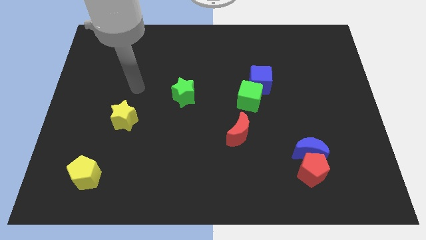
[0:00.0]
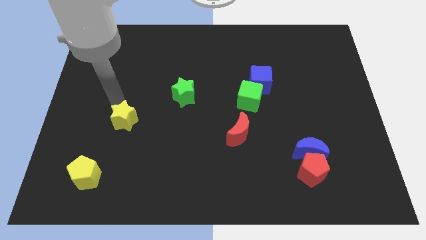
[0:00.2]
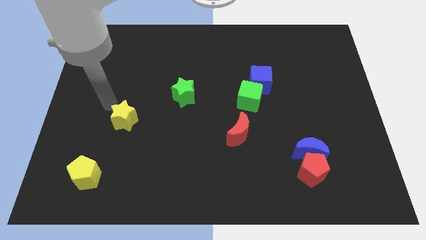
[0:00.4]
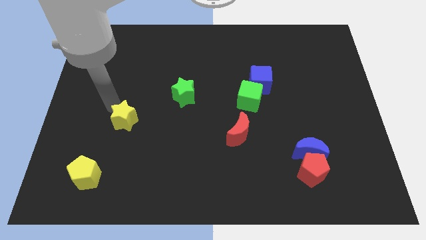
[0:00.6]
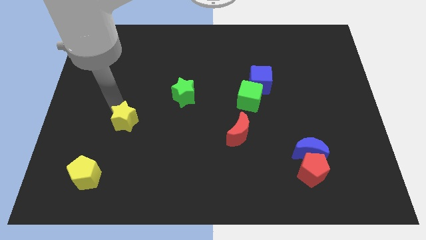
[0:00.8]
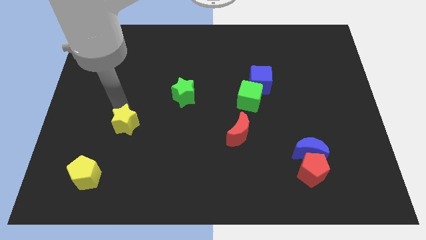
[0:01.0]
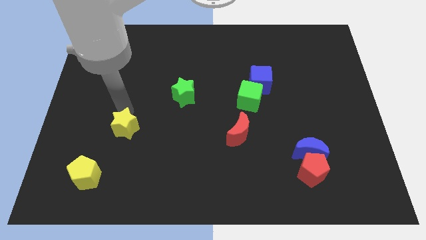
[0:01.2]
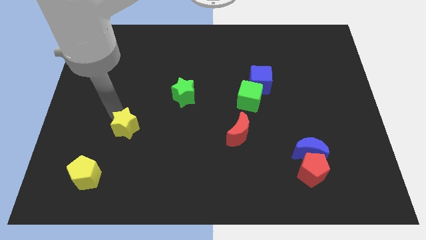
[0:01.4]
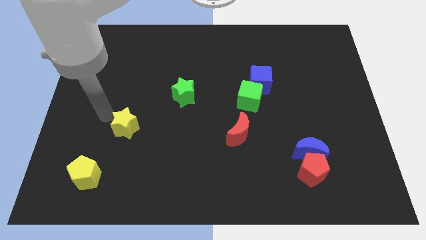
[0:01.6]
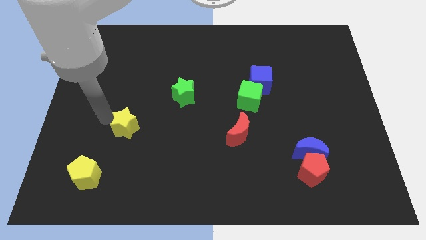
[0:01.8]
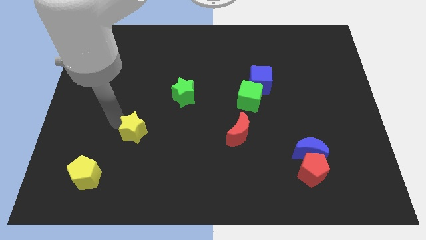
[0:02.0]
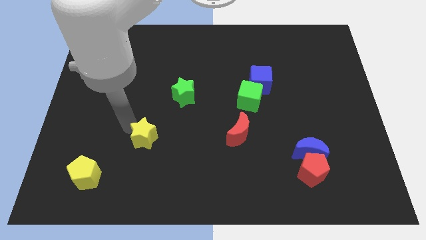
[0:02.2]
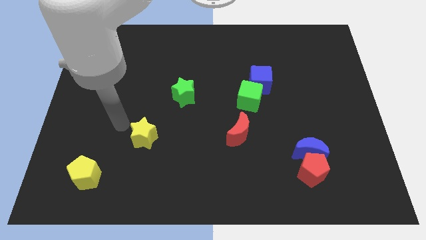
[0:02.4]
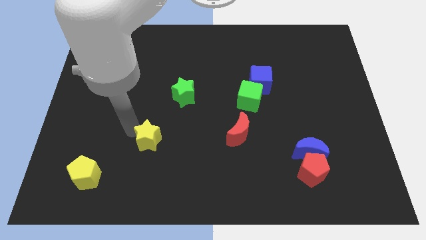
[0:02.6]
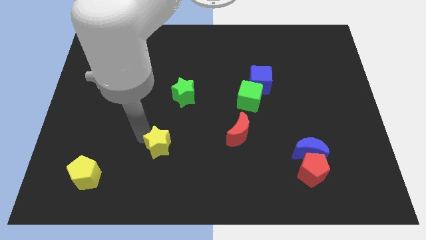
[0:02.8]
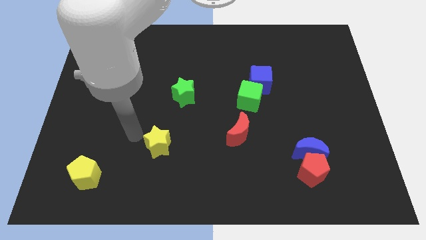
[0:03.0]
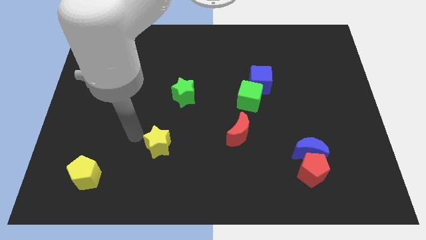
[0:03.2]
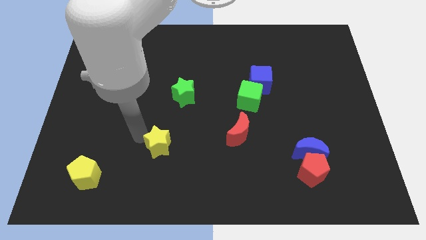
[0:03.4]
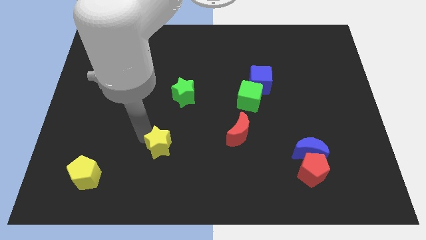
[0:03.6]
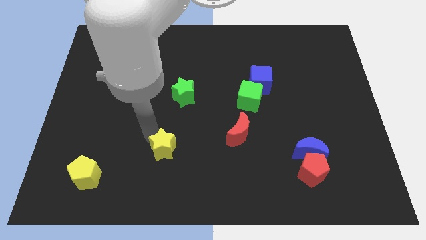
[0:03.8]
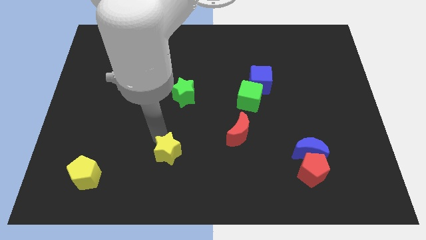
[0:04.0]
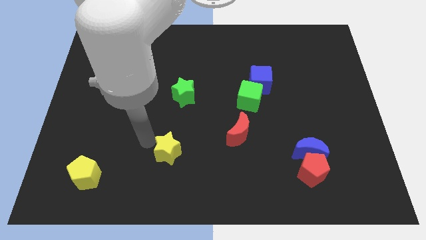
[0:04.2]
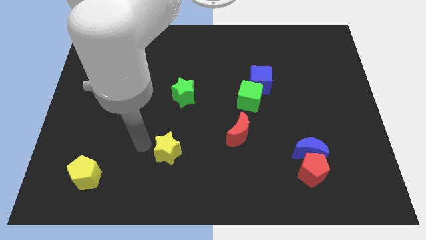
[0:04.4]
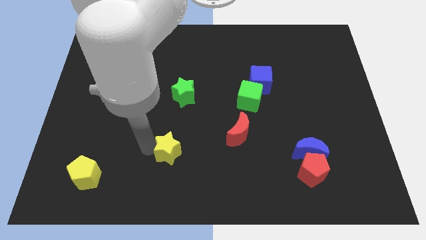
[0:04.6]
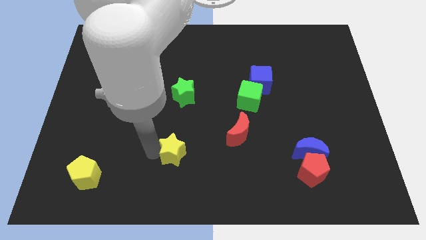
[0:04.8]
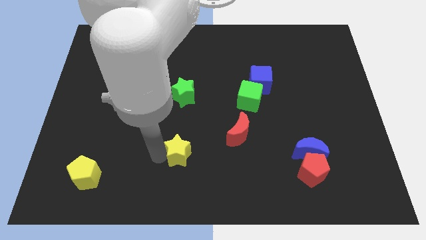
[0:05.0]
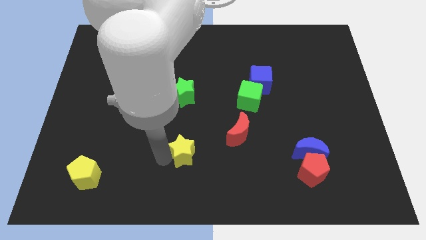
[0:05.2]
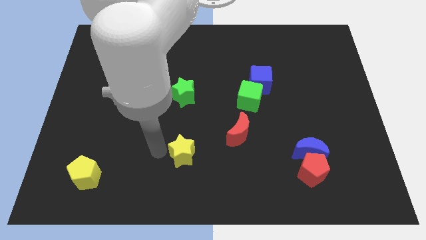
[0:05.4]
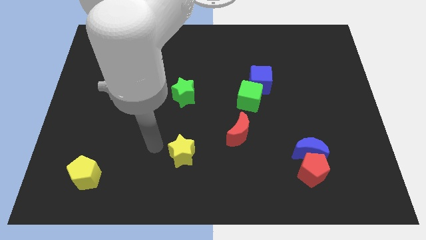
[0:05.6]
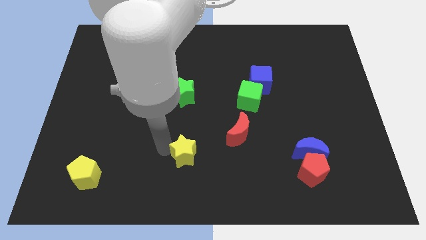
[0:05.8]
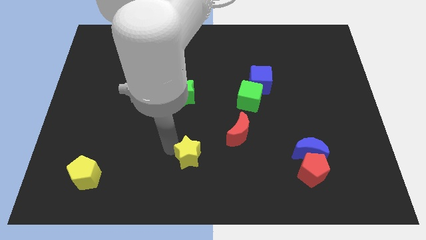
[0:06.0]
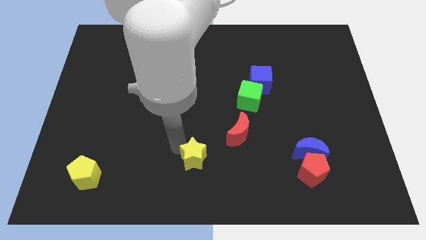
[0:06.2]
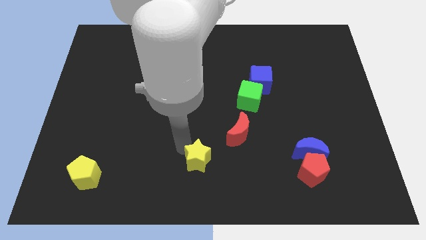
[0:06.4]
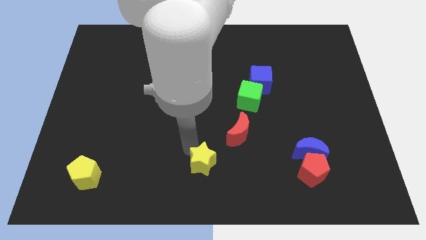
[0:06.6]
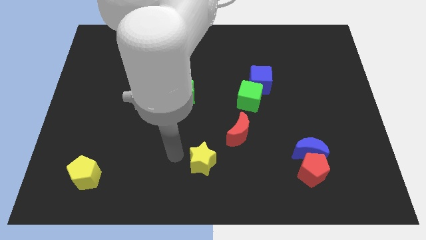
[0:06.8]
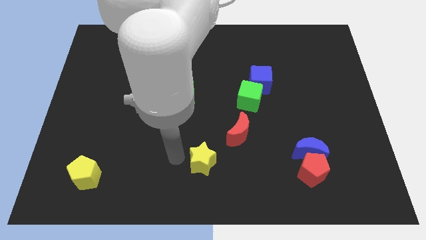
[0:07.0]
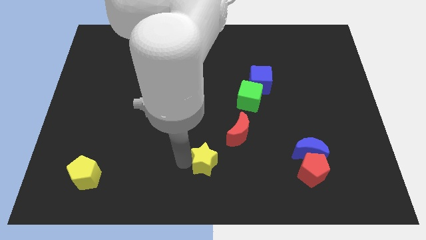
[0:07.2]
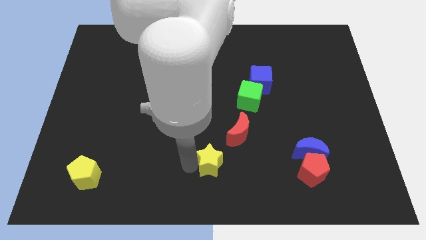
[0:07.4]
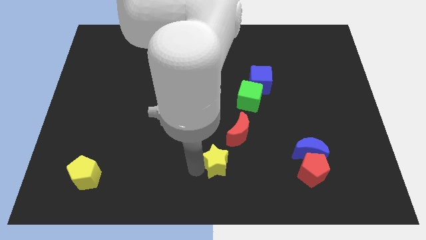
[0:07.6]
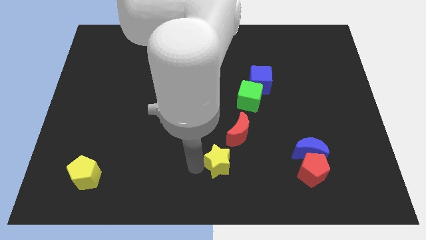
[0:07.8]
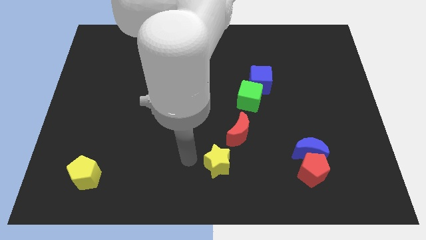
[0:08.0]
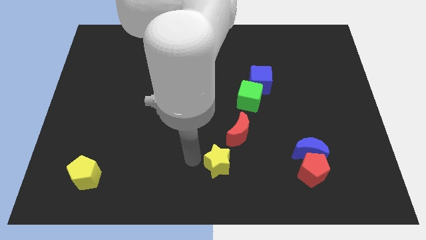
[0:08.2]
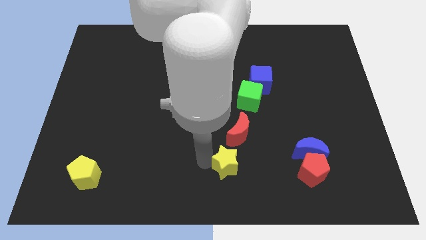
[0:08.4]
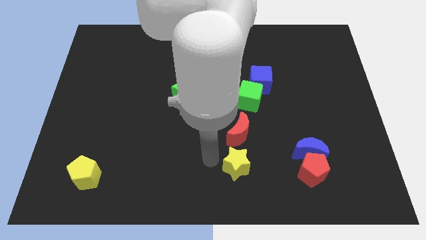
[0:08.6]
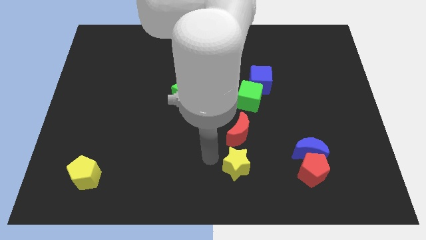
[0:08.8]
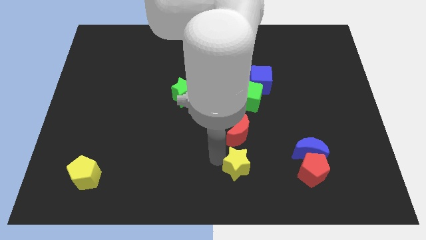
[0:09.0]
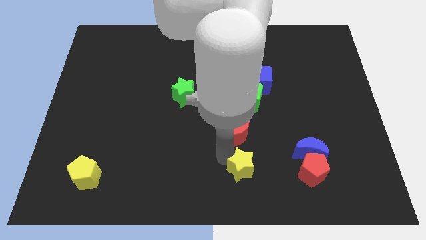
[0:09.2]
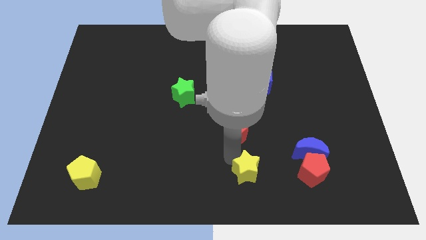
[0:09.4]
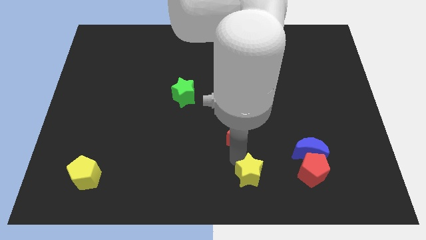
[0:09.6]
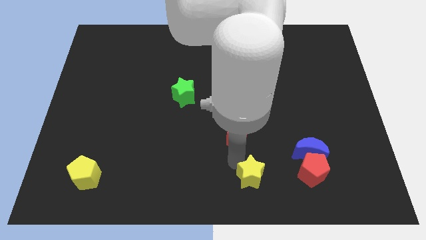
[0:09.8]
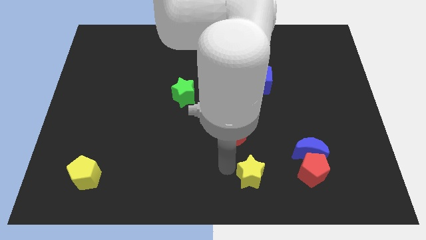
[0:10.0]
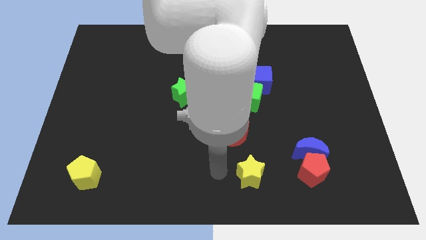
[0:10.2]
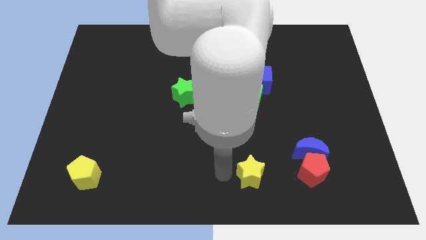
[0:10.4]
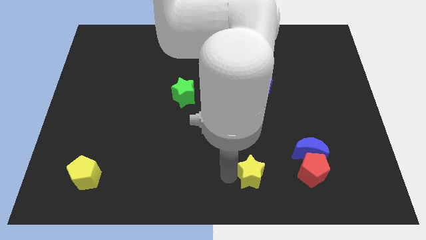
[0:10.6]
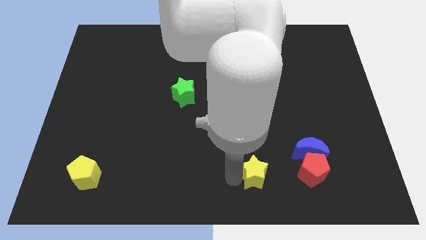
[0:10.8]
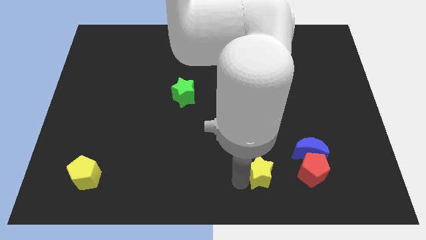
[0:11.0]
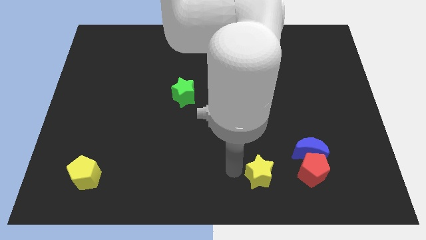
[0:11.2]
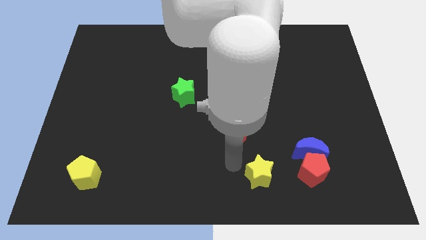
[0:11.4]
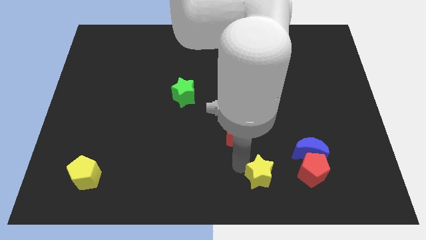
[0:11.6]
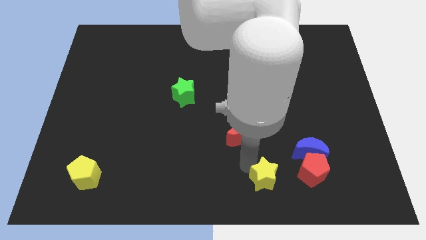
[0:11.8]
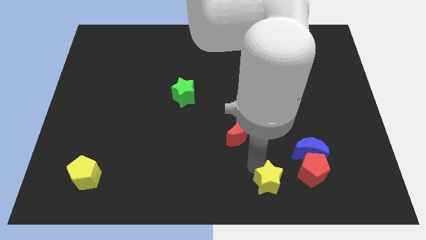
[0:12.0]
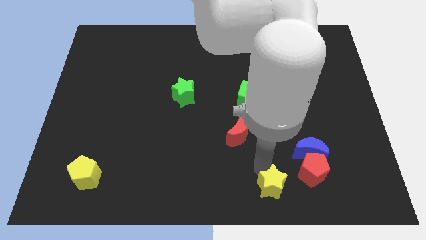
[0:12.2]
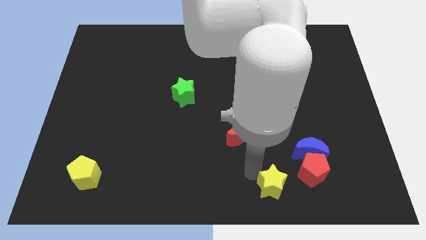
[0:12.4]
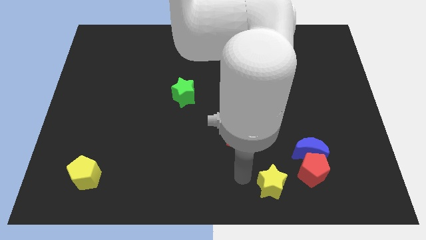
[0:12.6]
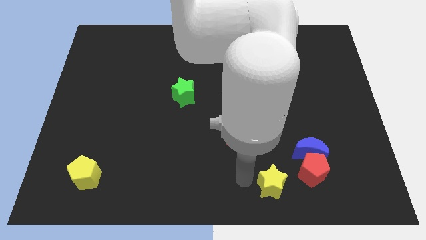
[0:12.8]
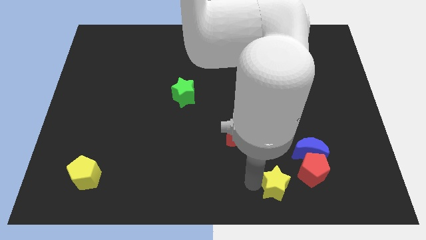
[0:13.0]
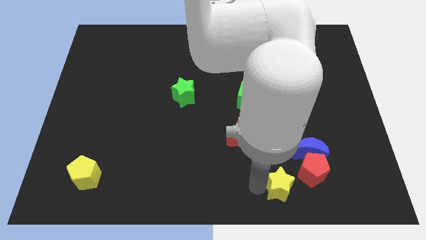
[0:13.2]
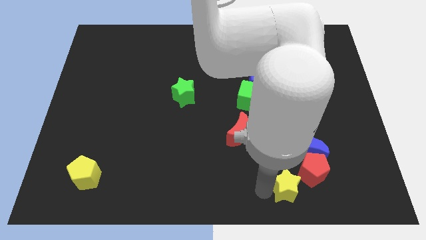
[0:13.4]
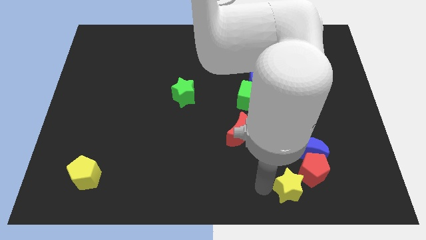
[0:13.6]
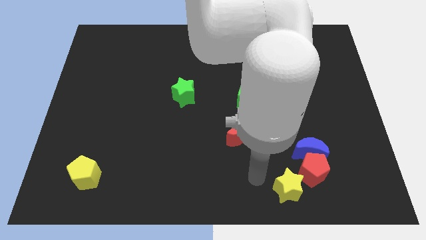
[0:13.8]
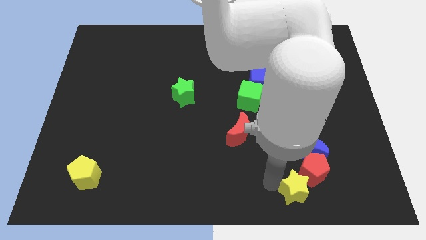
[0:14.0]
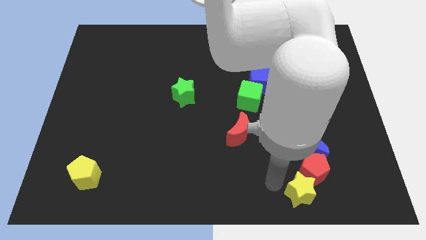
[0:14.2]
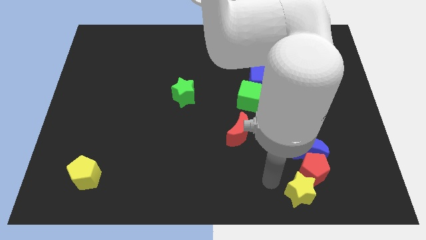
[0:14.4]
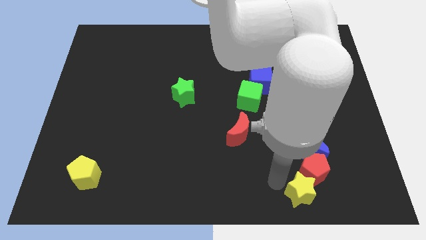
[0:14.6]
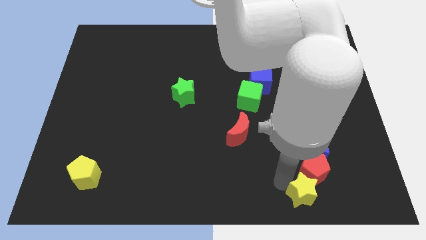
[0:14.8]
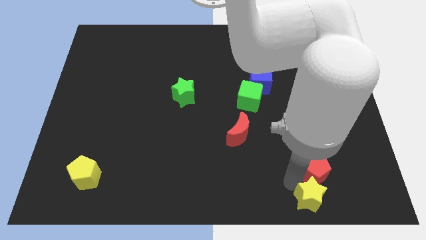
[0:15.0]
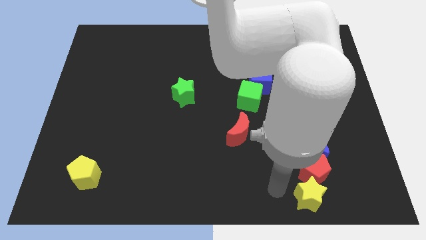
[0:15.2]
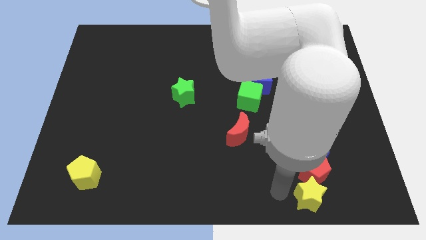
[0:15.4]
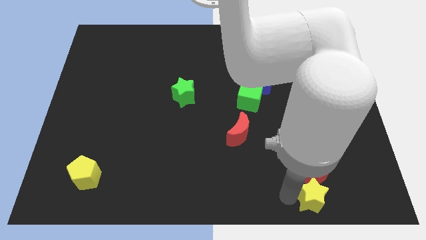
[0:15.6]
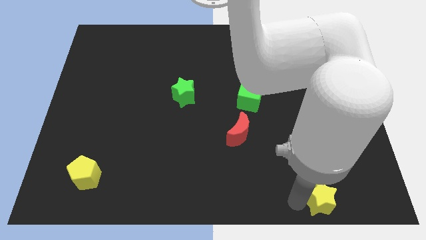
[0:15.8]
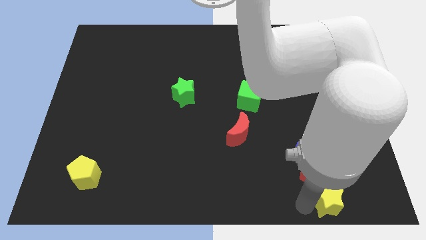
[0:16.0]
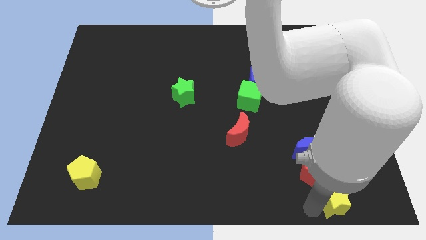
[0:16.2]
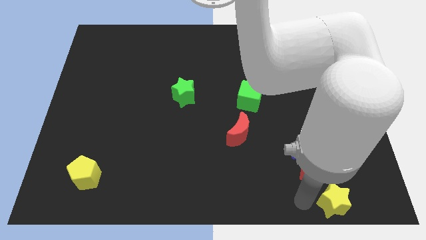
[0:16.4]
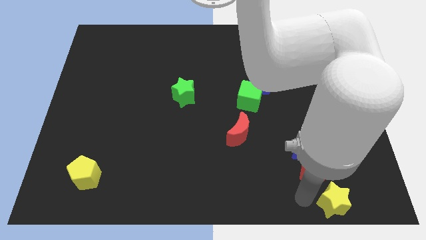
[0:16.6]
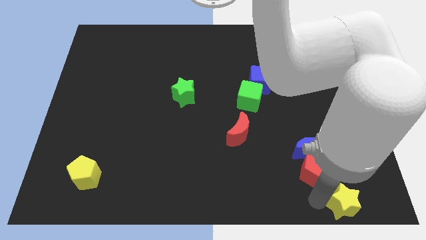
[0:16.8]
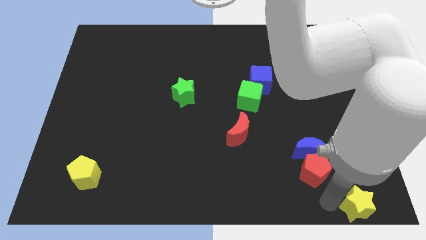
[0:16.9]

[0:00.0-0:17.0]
push the yellow star to the bottom right of the board
